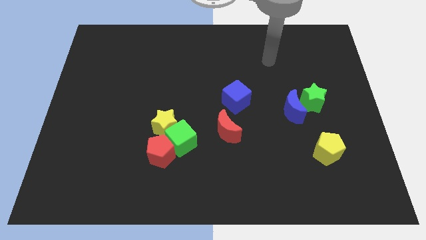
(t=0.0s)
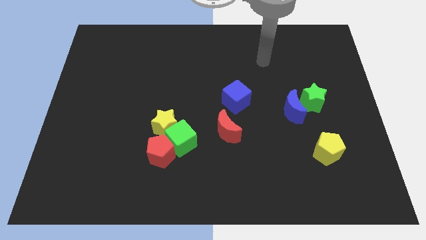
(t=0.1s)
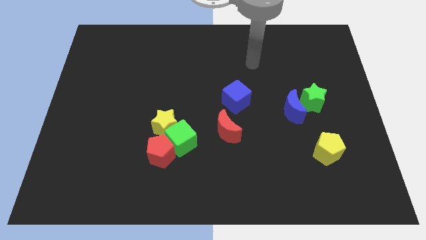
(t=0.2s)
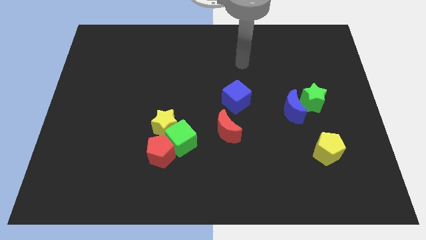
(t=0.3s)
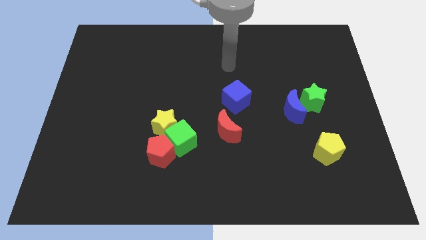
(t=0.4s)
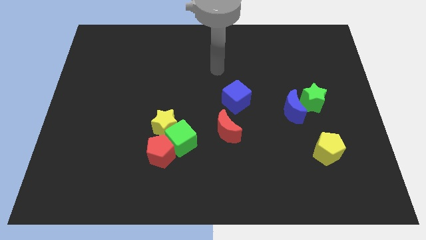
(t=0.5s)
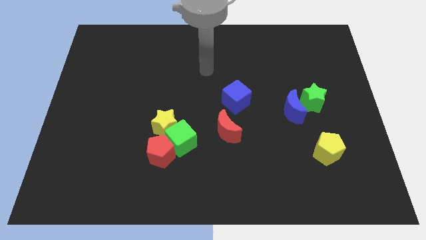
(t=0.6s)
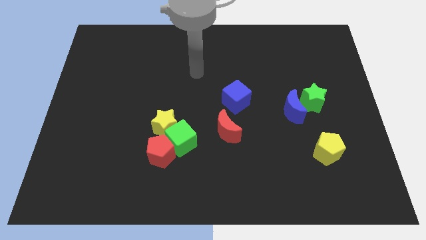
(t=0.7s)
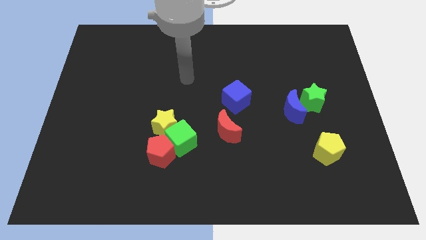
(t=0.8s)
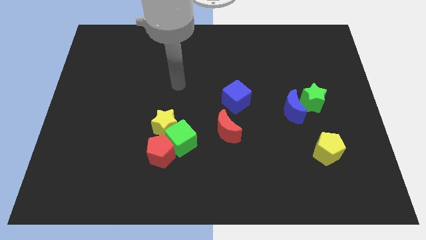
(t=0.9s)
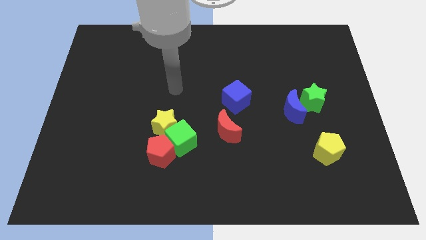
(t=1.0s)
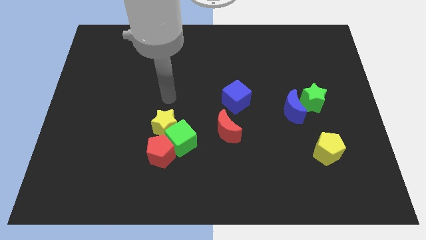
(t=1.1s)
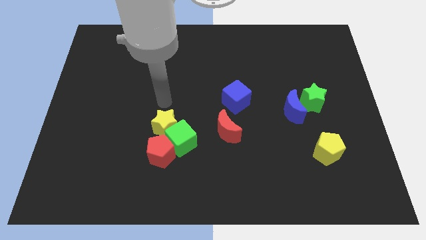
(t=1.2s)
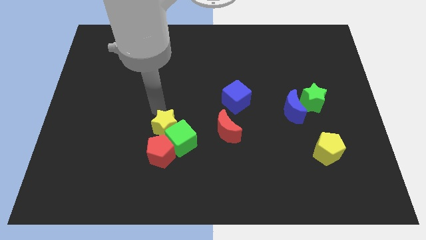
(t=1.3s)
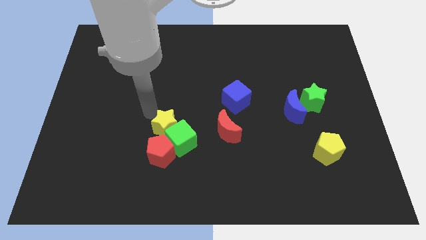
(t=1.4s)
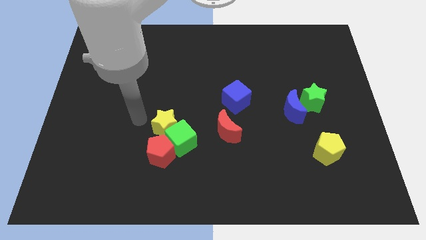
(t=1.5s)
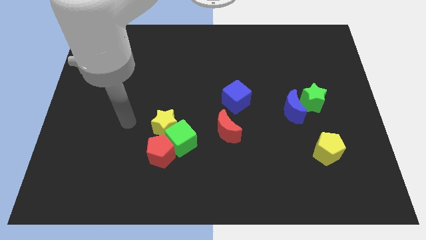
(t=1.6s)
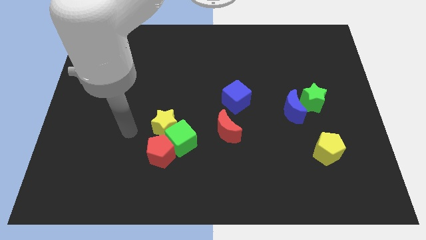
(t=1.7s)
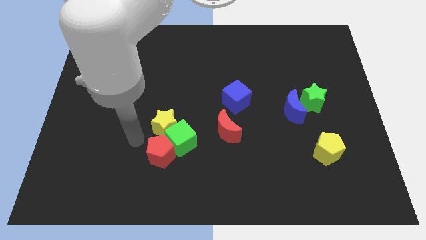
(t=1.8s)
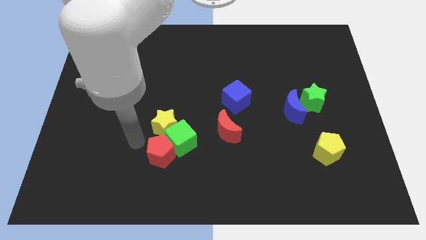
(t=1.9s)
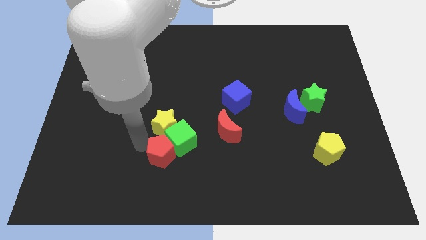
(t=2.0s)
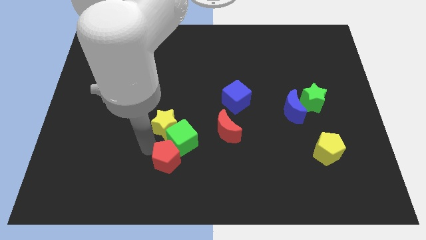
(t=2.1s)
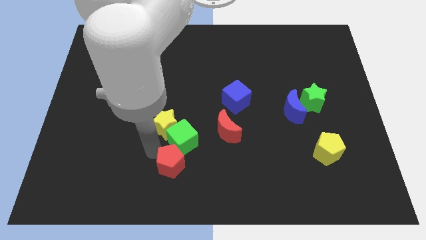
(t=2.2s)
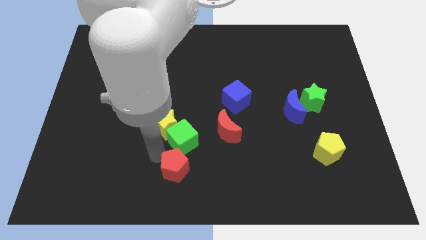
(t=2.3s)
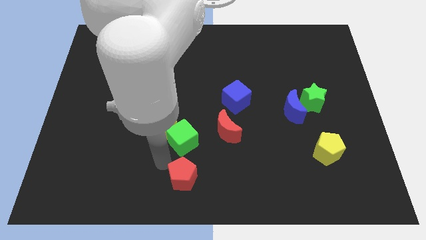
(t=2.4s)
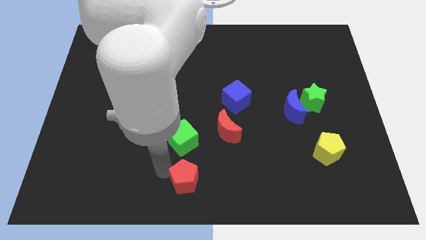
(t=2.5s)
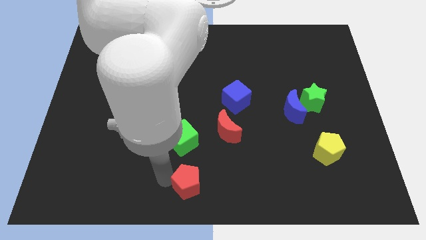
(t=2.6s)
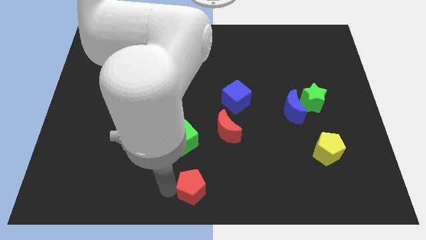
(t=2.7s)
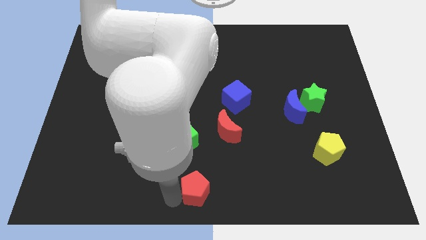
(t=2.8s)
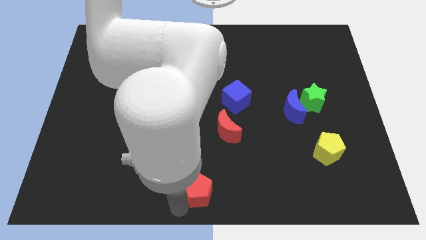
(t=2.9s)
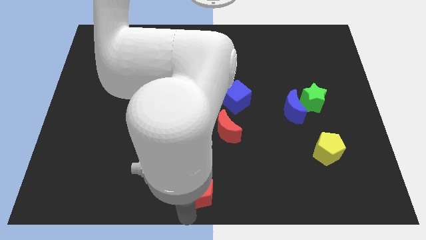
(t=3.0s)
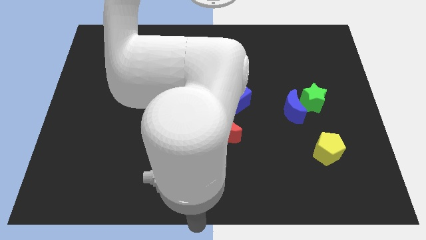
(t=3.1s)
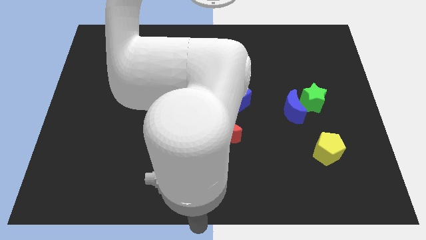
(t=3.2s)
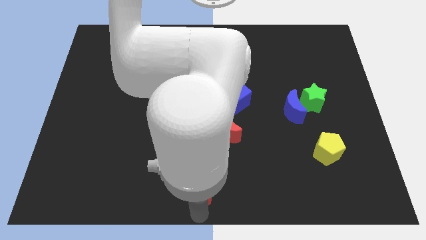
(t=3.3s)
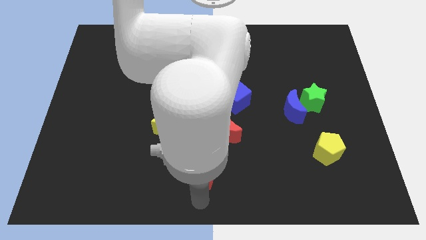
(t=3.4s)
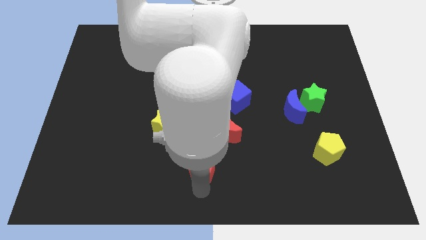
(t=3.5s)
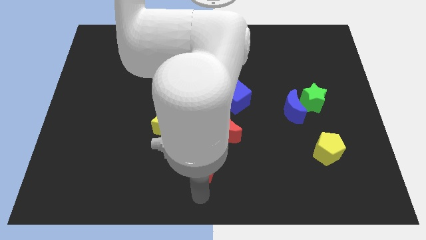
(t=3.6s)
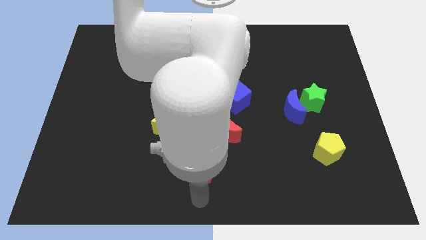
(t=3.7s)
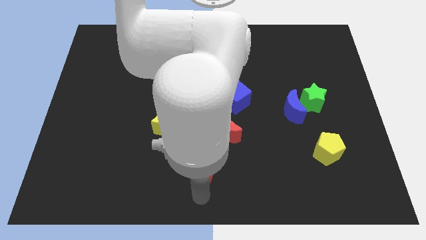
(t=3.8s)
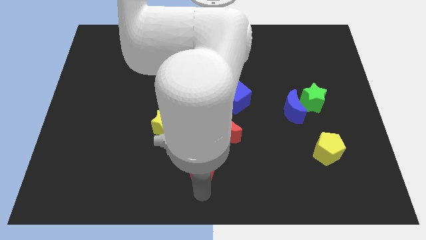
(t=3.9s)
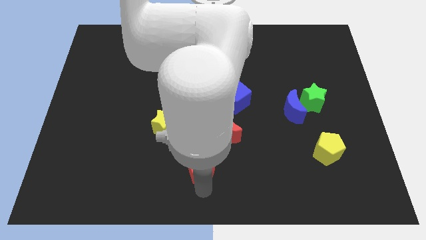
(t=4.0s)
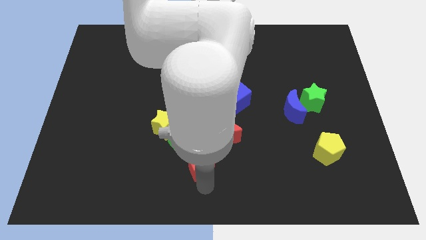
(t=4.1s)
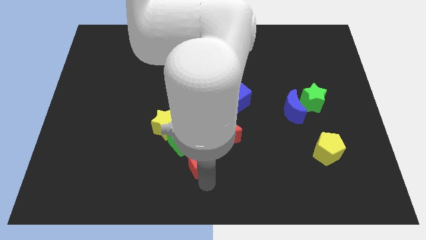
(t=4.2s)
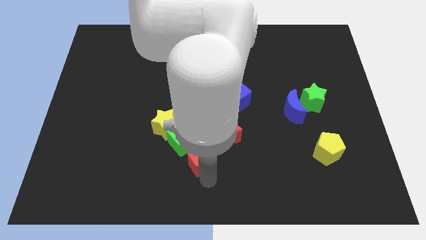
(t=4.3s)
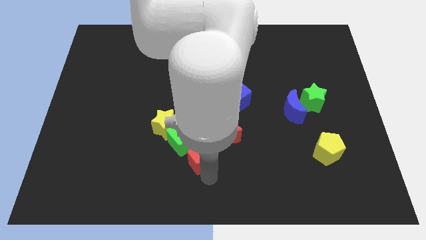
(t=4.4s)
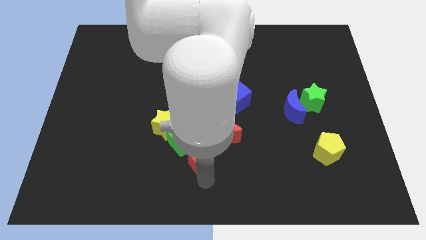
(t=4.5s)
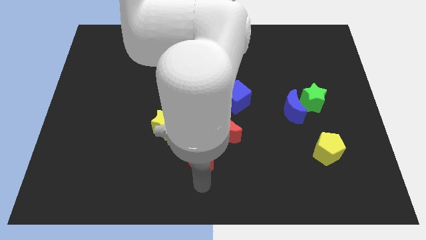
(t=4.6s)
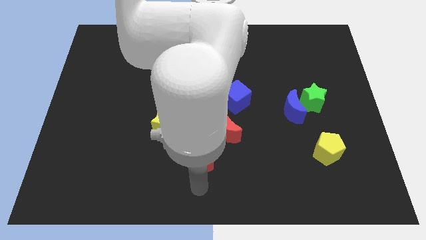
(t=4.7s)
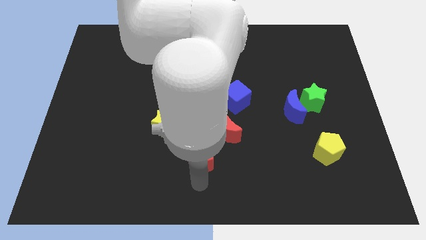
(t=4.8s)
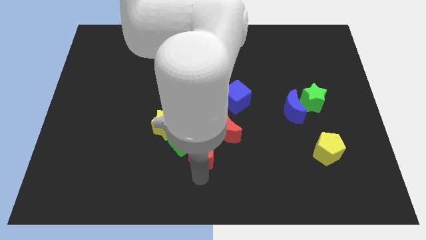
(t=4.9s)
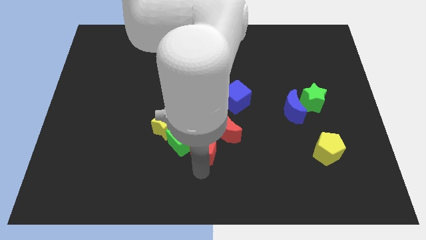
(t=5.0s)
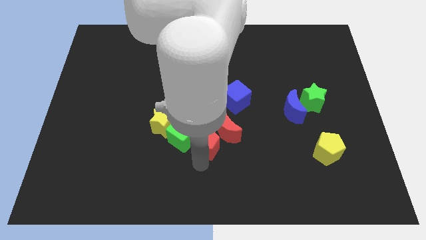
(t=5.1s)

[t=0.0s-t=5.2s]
move the red pentagon close to the red moon

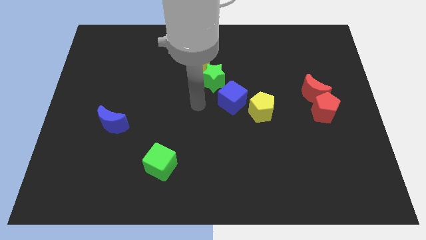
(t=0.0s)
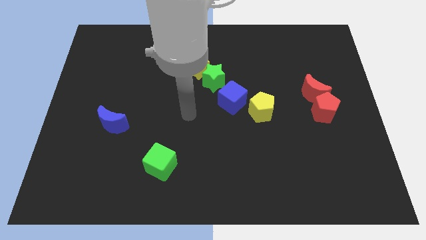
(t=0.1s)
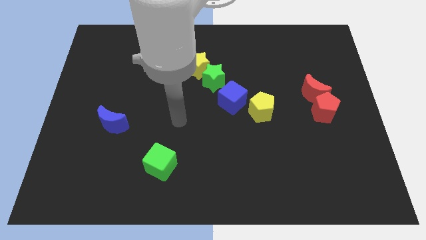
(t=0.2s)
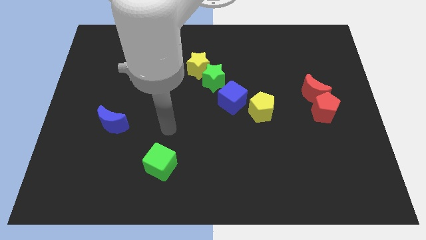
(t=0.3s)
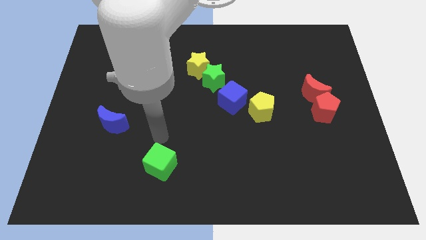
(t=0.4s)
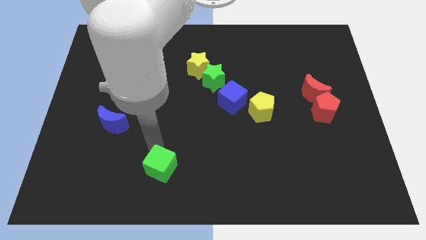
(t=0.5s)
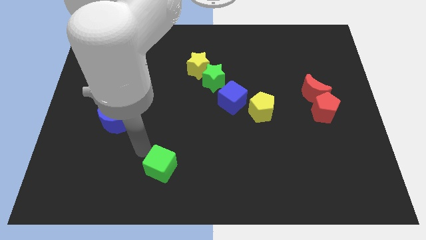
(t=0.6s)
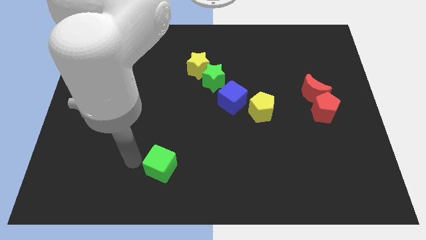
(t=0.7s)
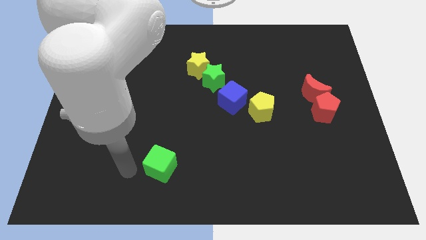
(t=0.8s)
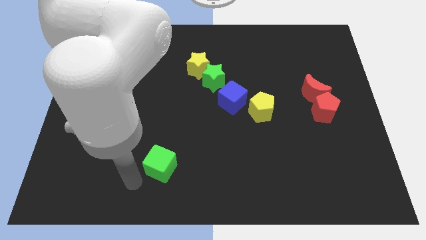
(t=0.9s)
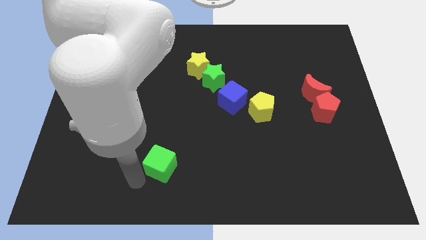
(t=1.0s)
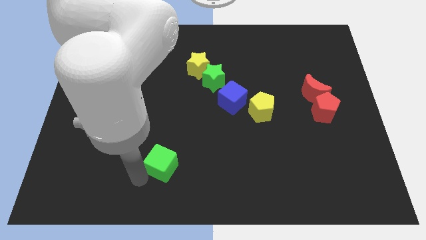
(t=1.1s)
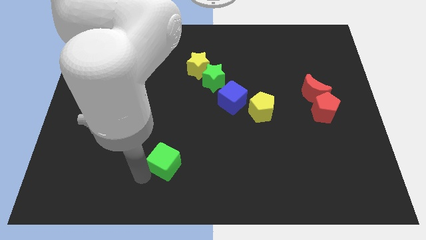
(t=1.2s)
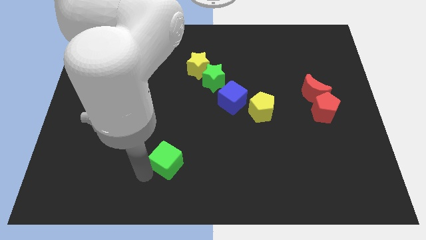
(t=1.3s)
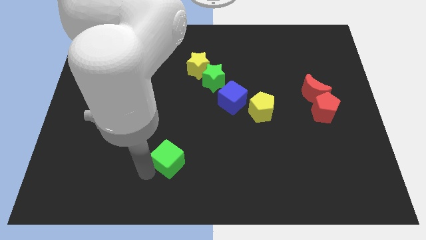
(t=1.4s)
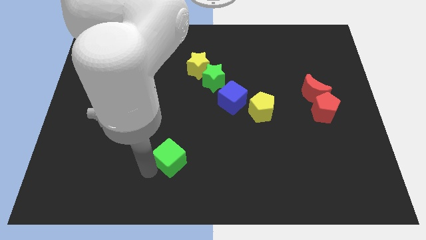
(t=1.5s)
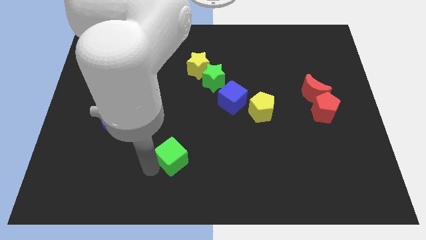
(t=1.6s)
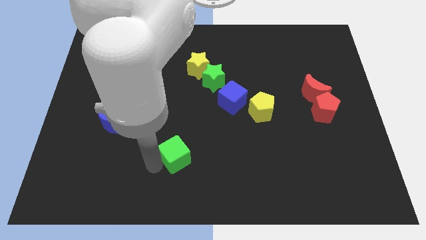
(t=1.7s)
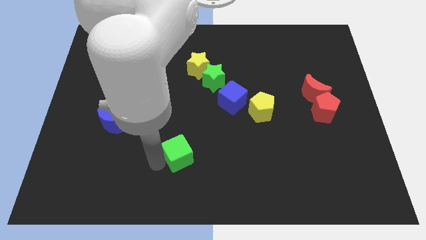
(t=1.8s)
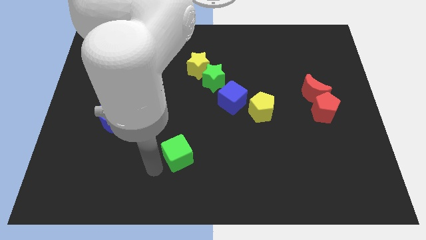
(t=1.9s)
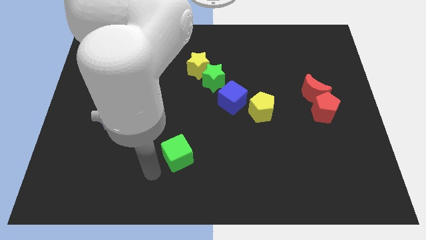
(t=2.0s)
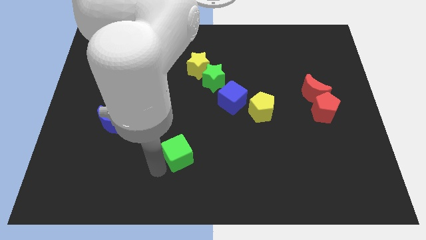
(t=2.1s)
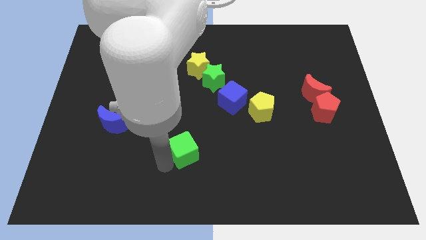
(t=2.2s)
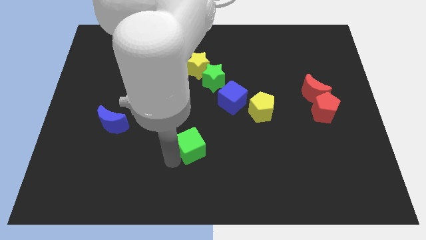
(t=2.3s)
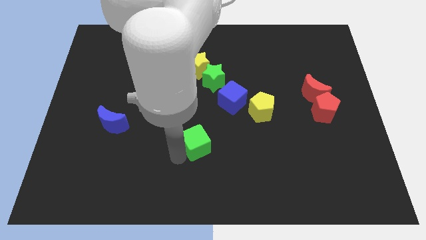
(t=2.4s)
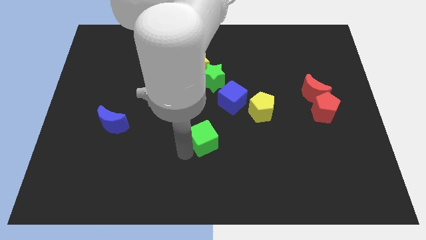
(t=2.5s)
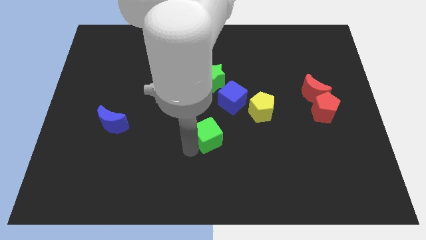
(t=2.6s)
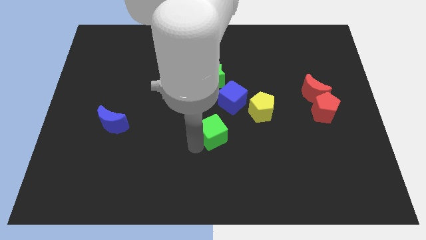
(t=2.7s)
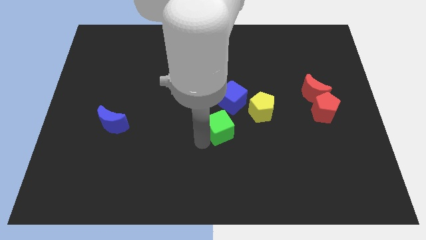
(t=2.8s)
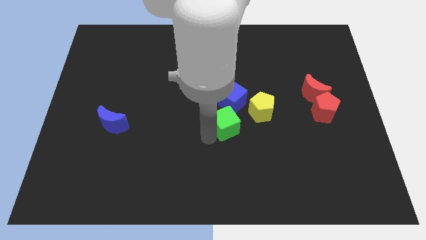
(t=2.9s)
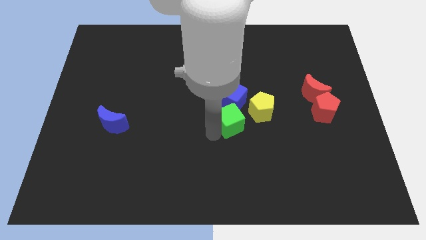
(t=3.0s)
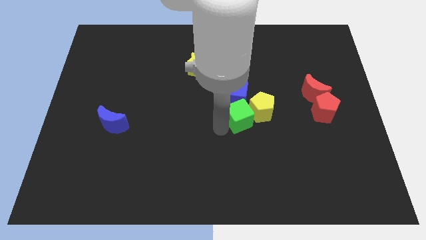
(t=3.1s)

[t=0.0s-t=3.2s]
put the green cube to the yellow pentagon
